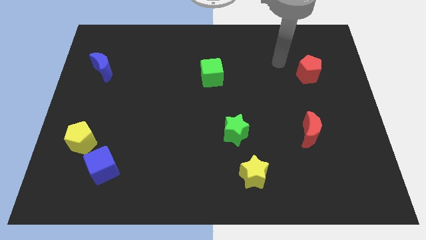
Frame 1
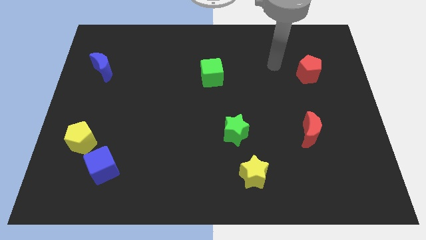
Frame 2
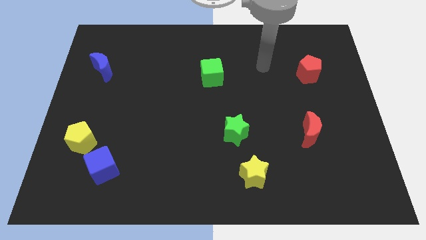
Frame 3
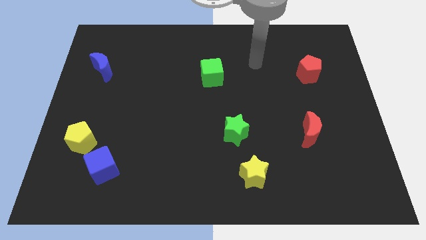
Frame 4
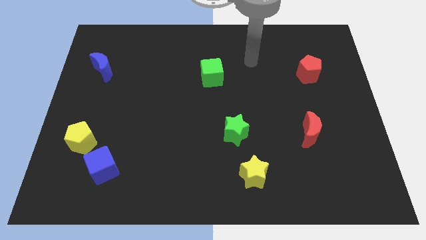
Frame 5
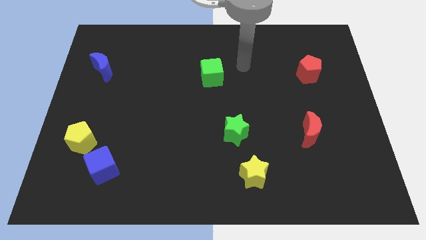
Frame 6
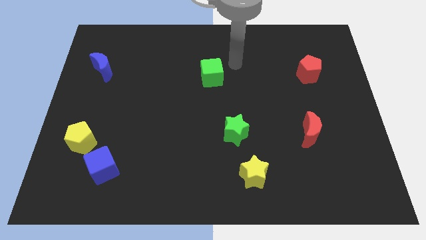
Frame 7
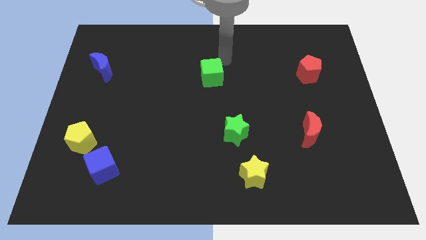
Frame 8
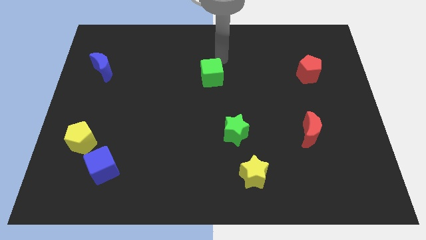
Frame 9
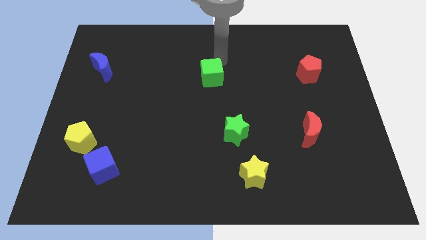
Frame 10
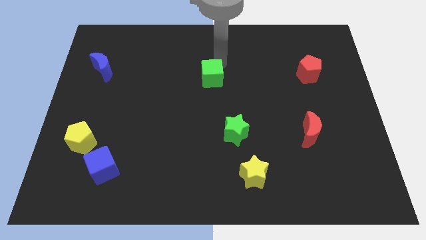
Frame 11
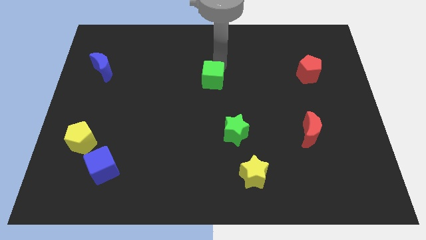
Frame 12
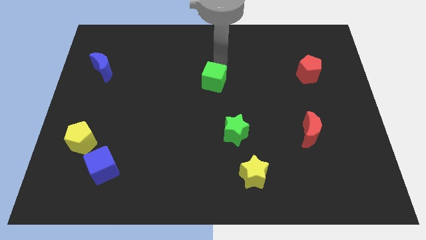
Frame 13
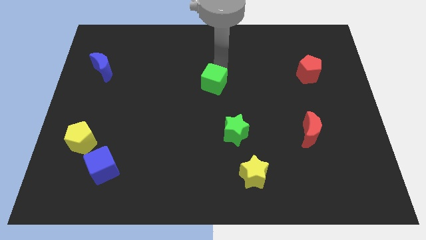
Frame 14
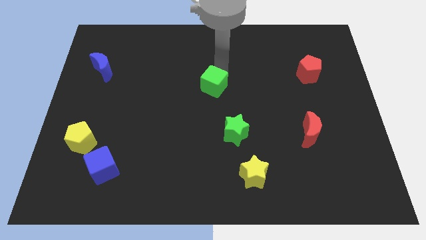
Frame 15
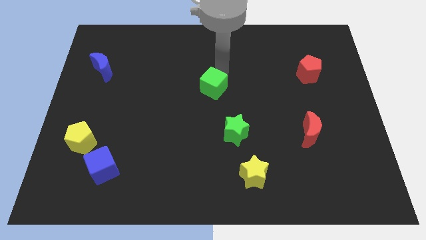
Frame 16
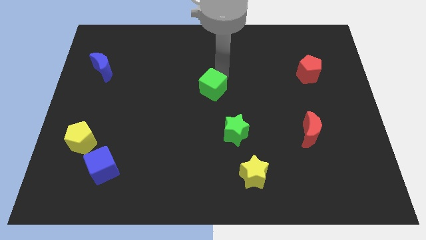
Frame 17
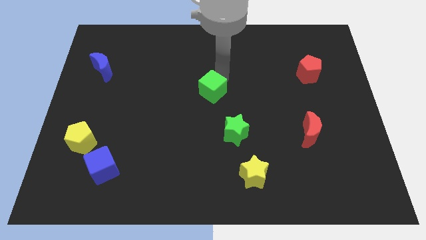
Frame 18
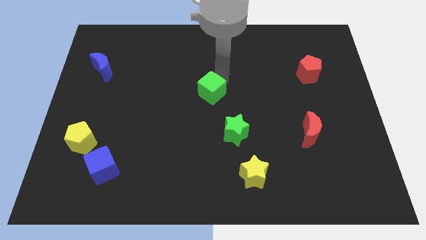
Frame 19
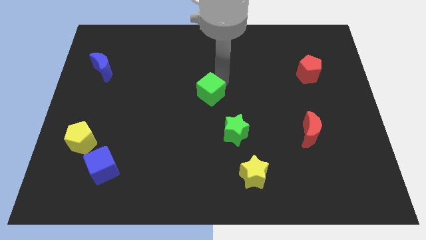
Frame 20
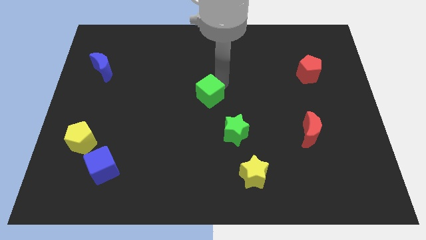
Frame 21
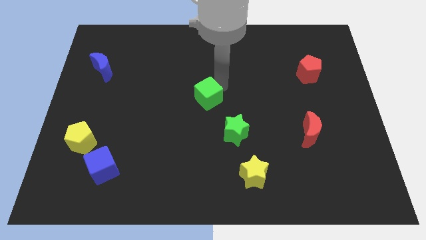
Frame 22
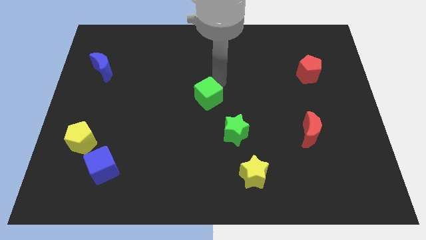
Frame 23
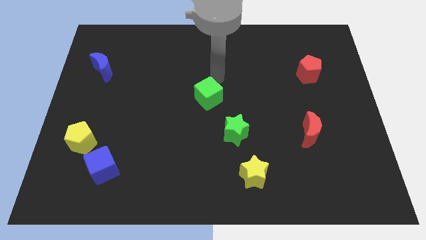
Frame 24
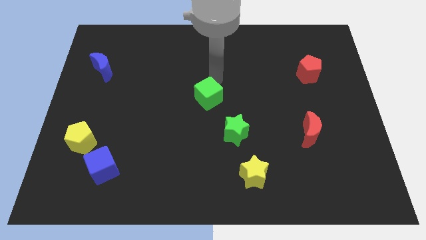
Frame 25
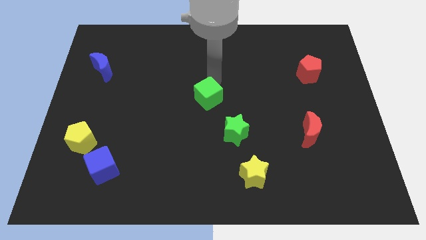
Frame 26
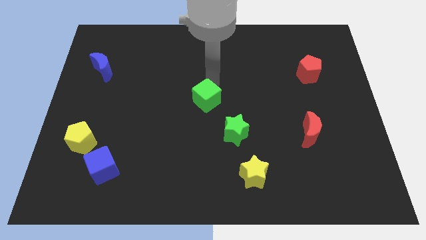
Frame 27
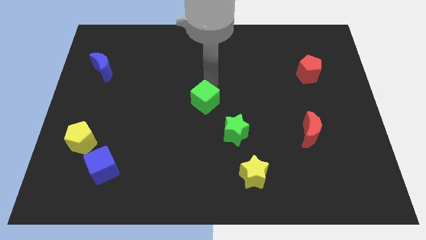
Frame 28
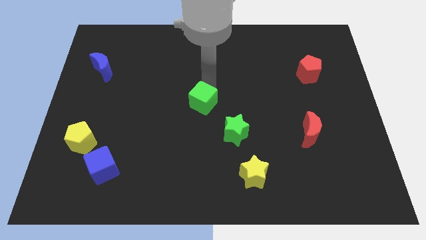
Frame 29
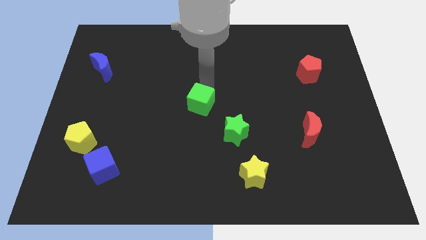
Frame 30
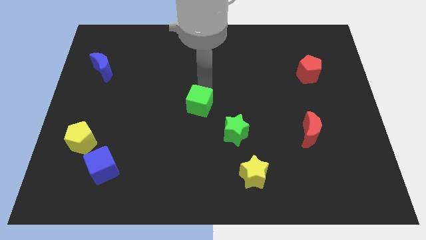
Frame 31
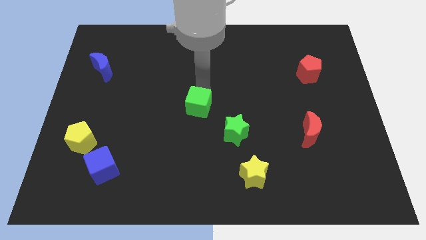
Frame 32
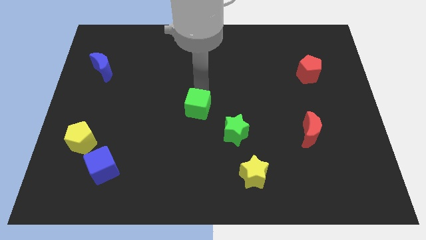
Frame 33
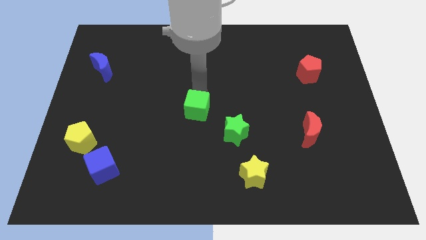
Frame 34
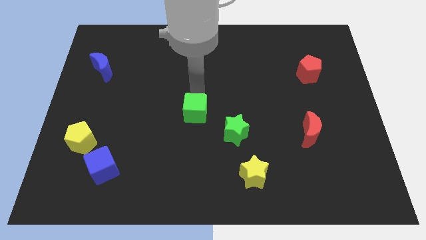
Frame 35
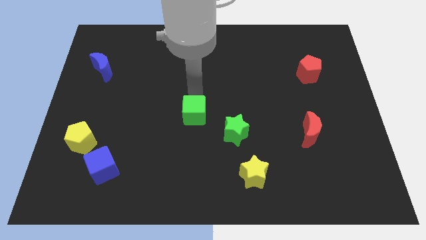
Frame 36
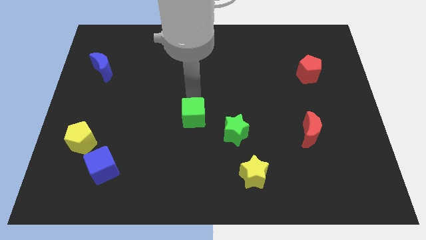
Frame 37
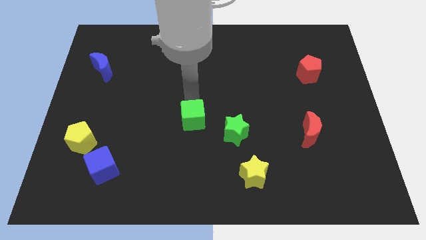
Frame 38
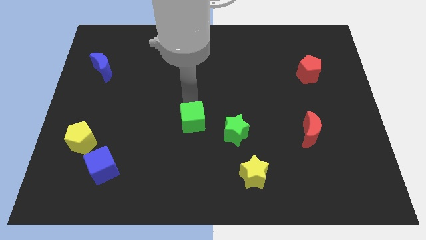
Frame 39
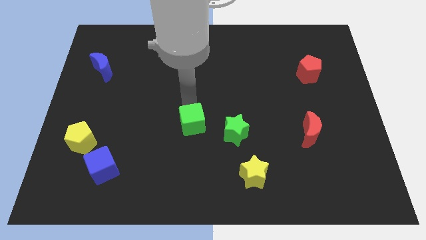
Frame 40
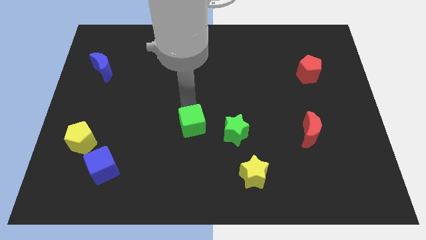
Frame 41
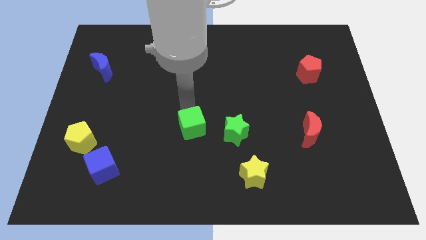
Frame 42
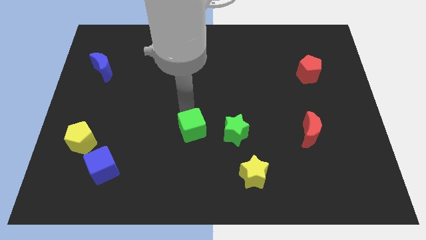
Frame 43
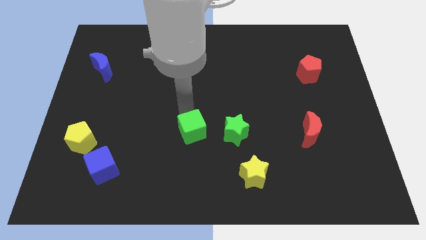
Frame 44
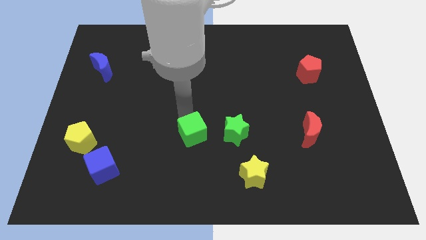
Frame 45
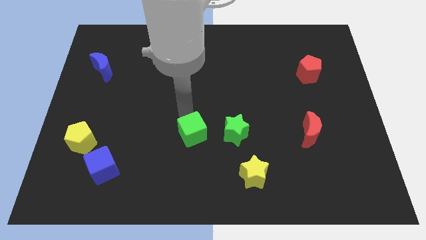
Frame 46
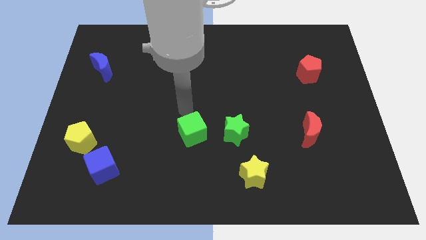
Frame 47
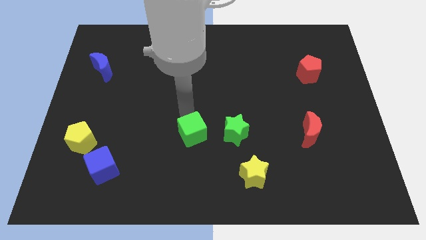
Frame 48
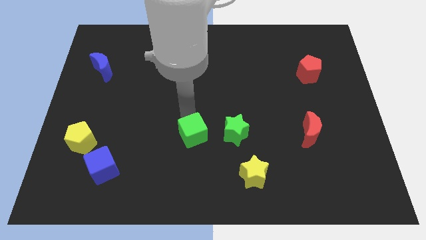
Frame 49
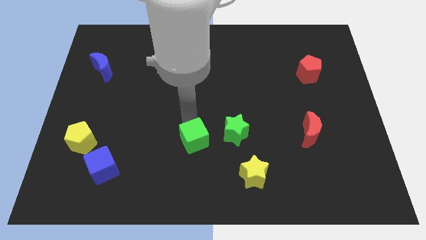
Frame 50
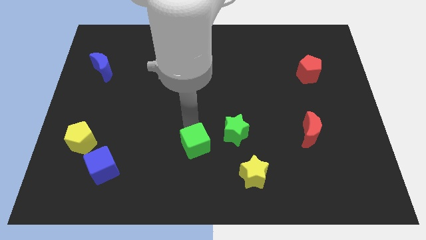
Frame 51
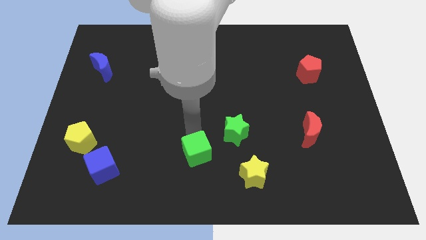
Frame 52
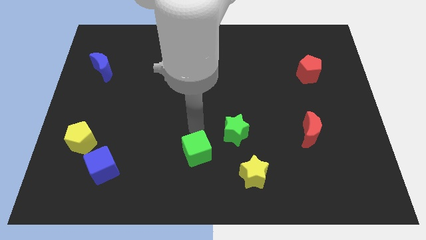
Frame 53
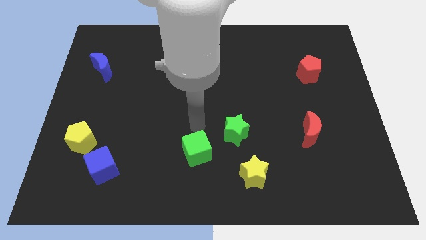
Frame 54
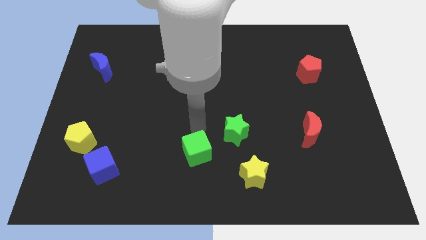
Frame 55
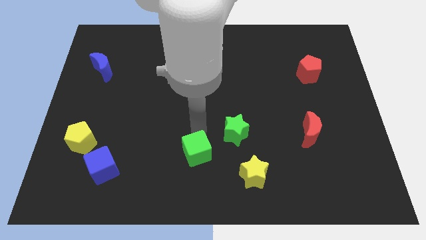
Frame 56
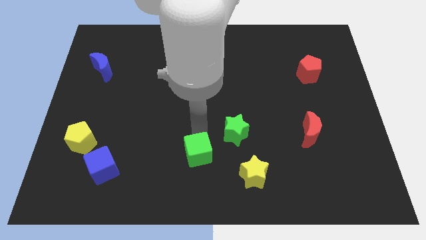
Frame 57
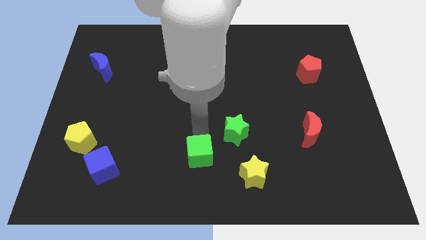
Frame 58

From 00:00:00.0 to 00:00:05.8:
move the green cube to the bottom side

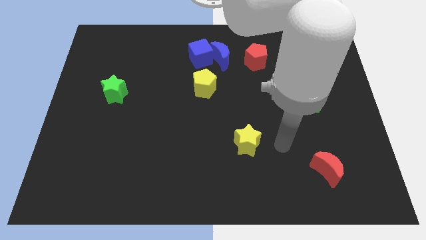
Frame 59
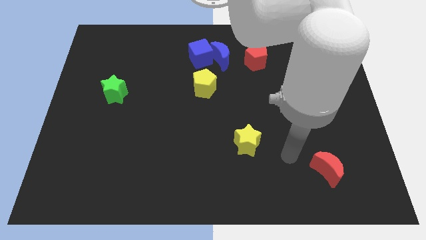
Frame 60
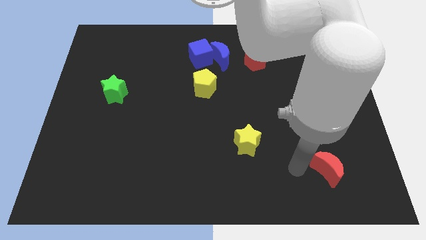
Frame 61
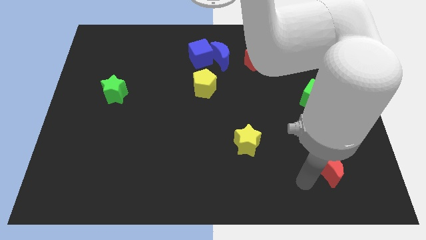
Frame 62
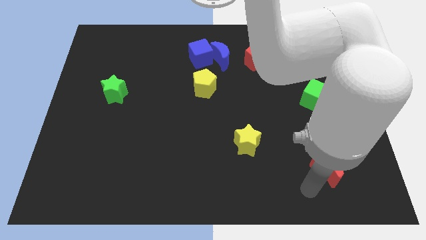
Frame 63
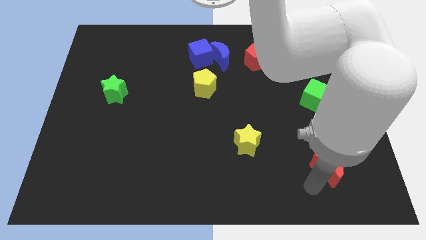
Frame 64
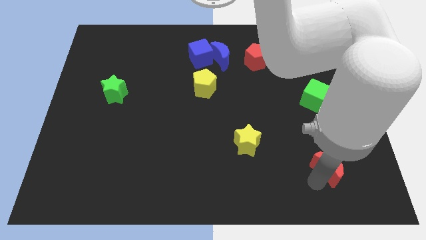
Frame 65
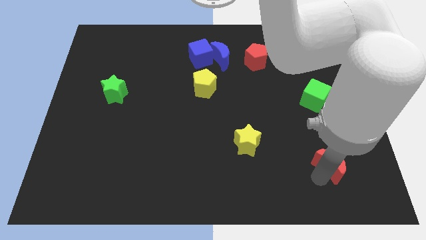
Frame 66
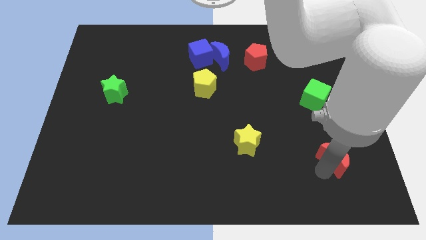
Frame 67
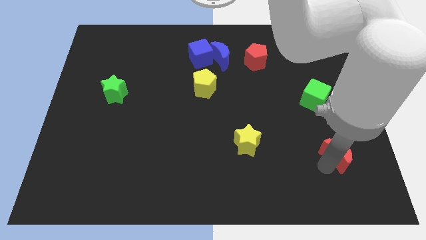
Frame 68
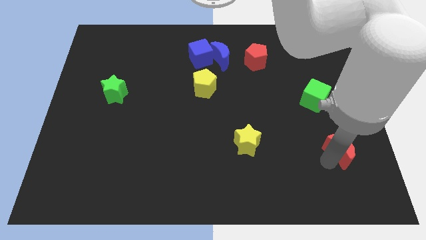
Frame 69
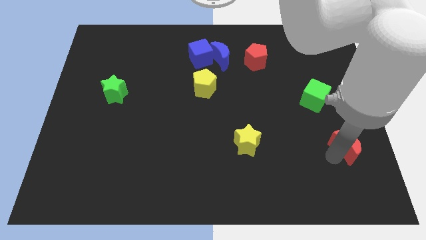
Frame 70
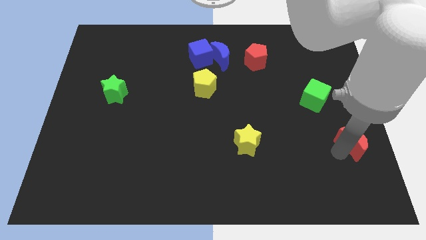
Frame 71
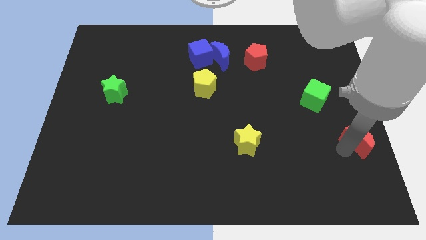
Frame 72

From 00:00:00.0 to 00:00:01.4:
push the red moon to the center right

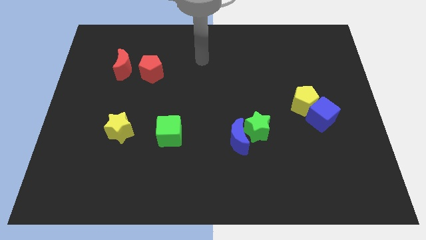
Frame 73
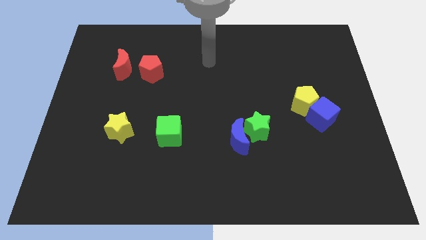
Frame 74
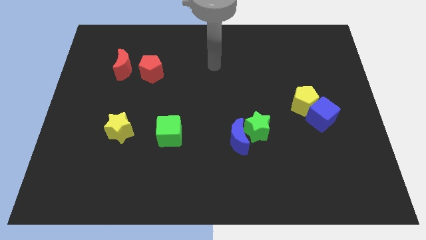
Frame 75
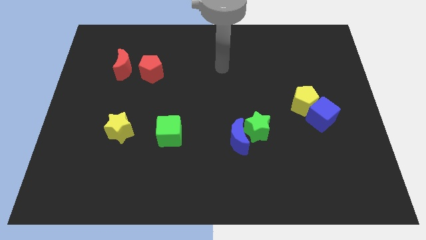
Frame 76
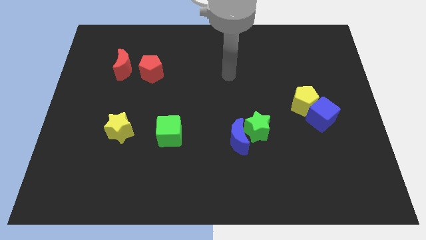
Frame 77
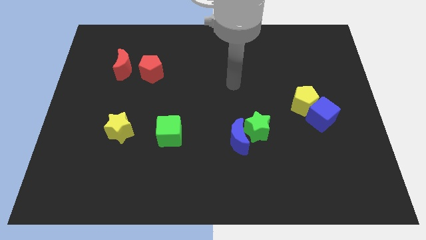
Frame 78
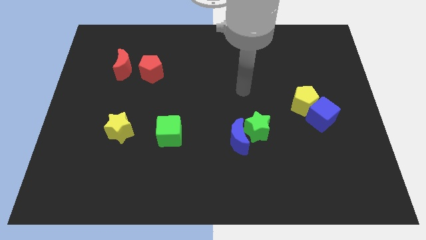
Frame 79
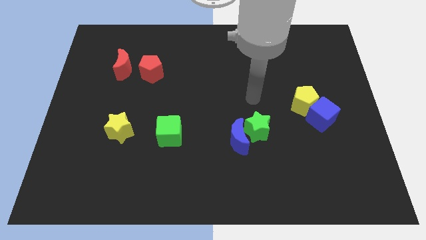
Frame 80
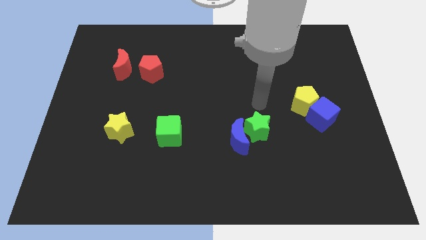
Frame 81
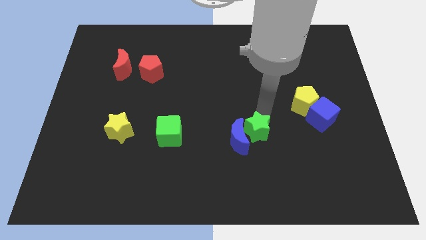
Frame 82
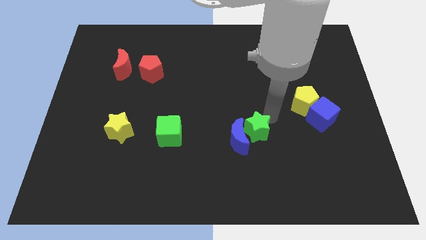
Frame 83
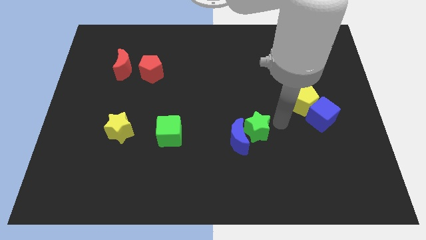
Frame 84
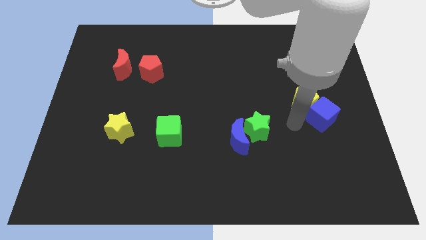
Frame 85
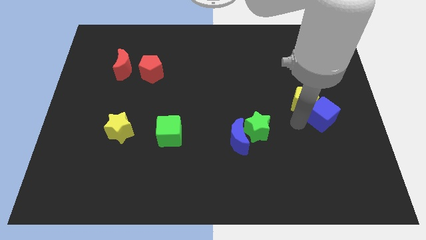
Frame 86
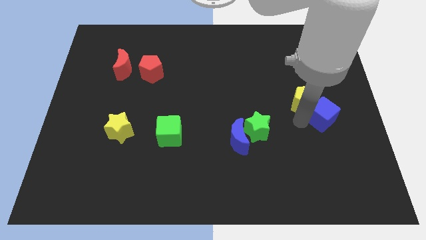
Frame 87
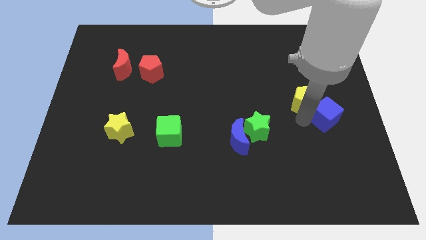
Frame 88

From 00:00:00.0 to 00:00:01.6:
move the blue cube to the right side
